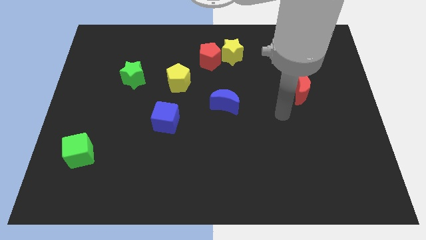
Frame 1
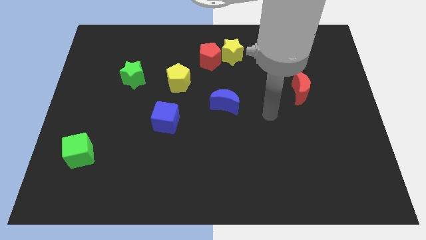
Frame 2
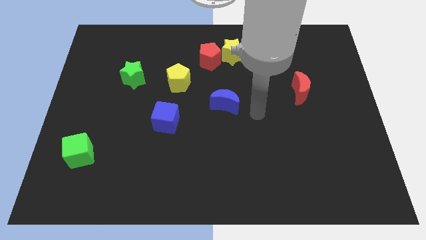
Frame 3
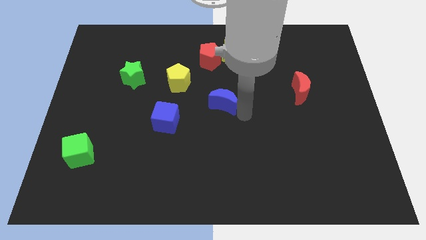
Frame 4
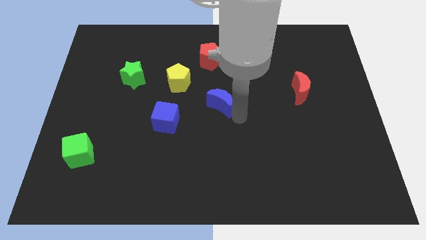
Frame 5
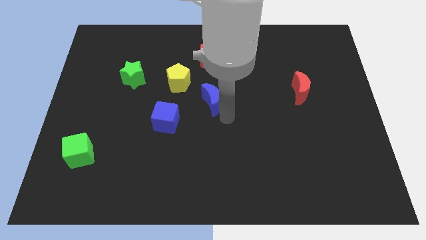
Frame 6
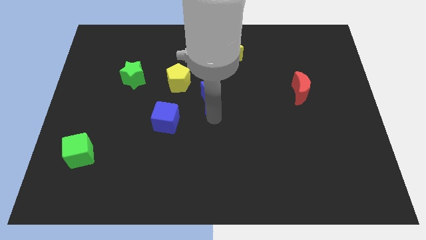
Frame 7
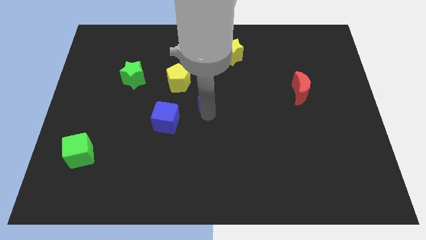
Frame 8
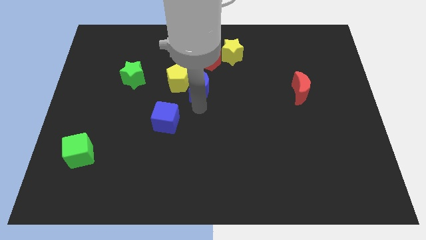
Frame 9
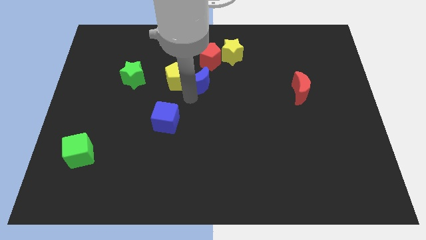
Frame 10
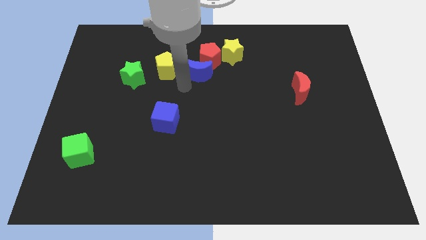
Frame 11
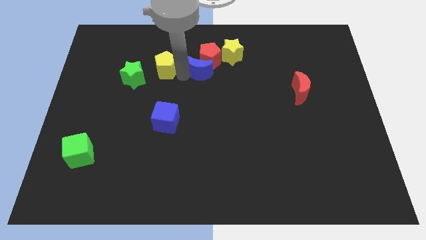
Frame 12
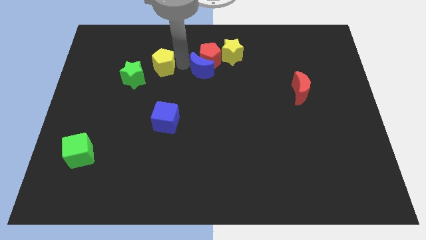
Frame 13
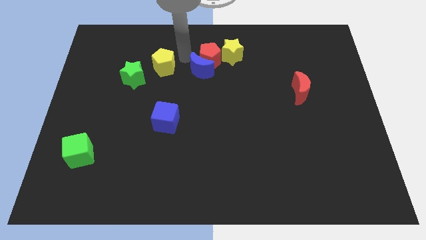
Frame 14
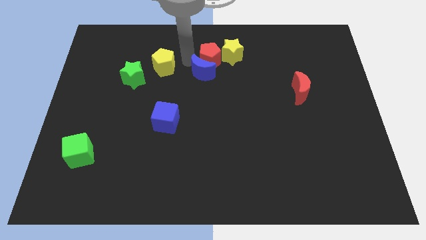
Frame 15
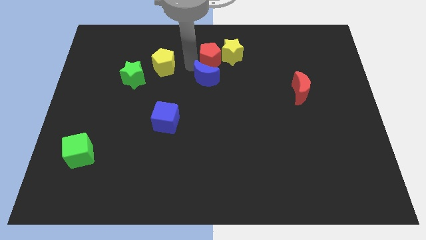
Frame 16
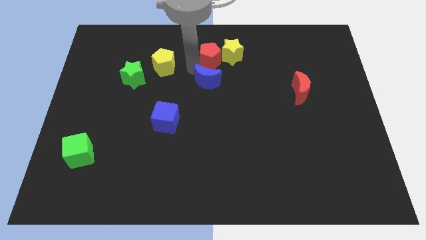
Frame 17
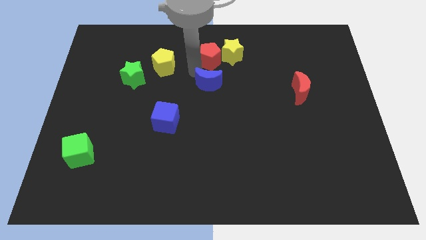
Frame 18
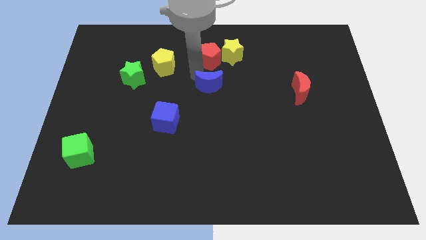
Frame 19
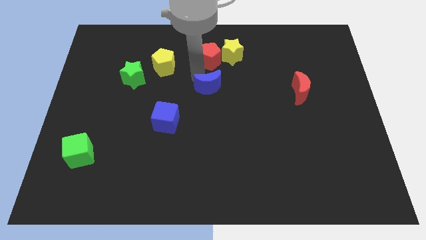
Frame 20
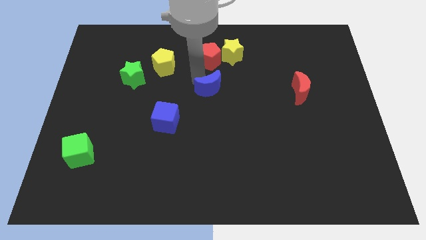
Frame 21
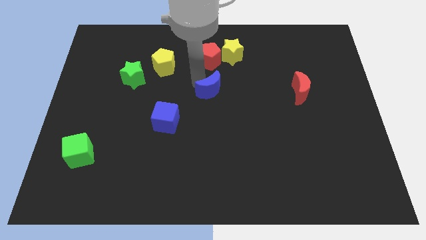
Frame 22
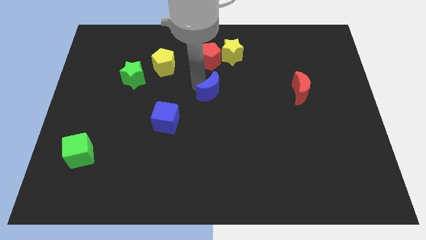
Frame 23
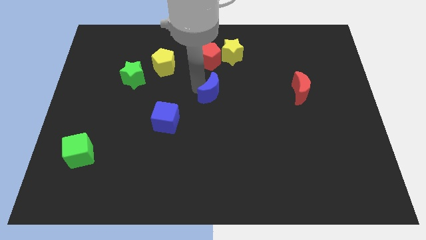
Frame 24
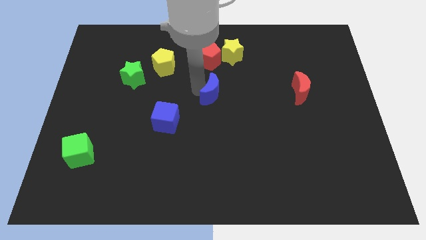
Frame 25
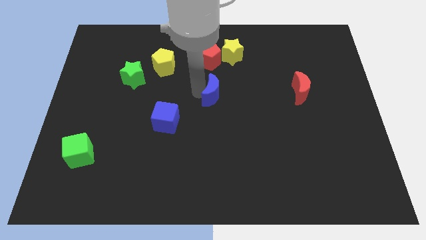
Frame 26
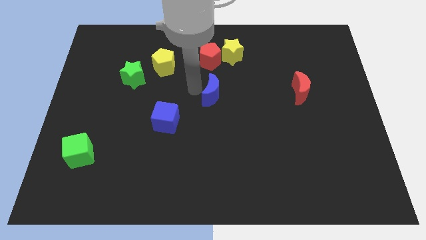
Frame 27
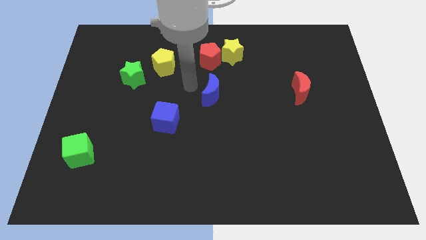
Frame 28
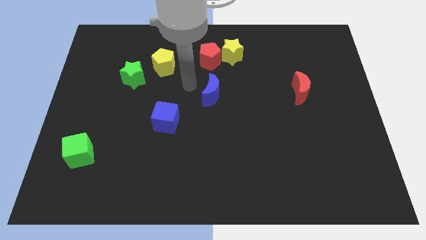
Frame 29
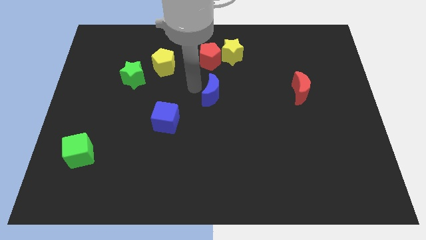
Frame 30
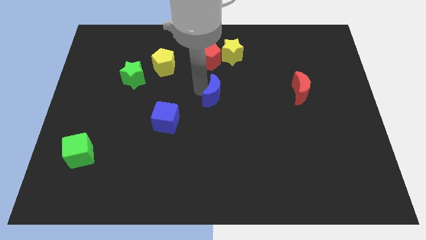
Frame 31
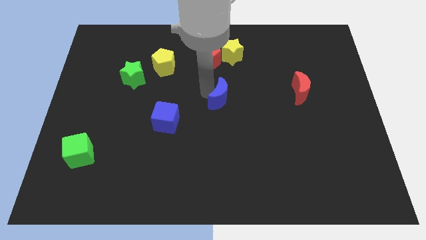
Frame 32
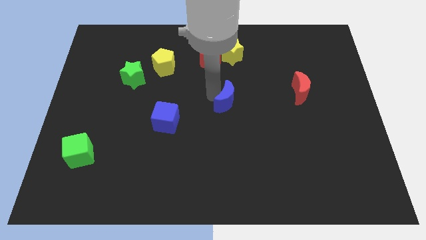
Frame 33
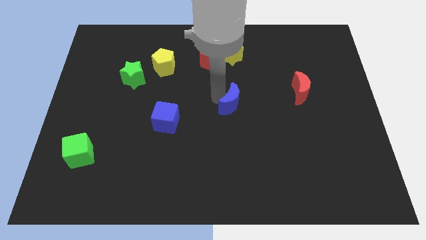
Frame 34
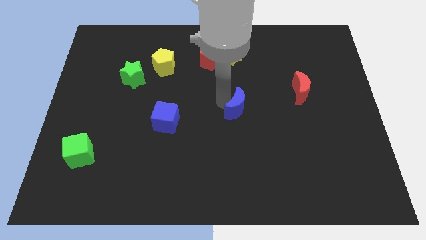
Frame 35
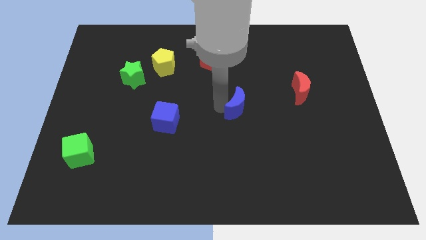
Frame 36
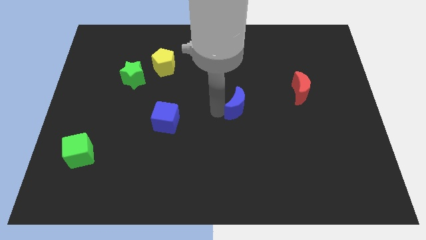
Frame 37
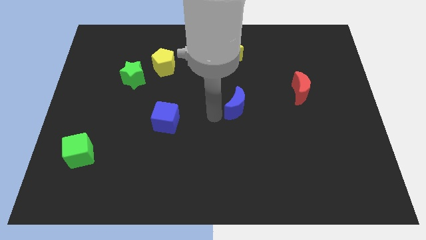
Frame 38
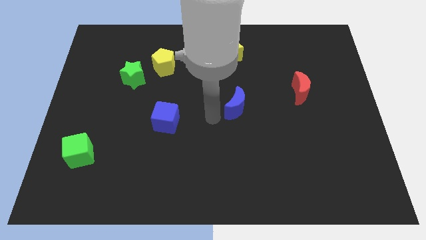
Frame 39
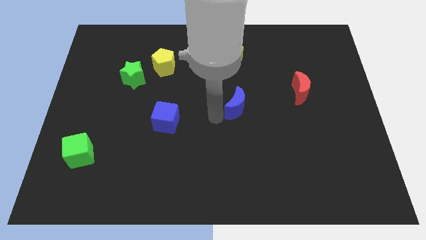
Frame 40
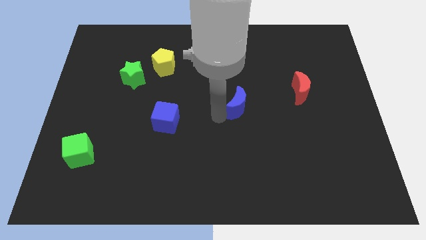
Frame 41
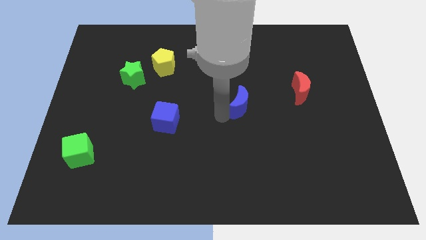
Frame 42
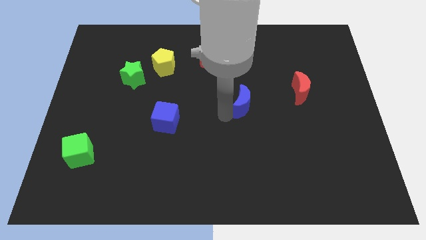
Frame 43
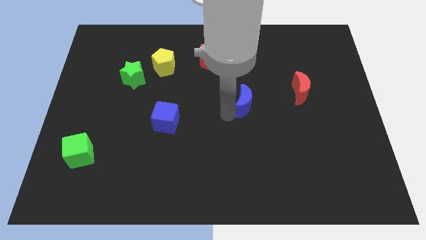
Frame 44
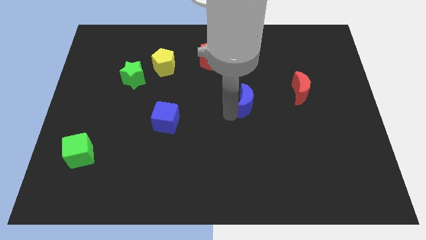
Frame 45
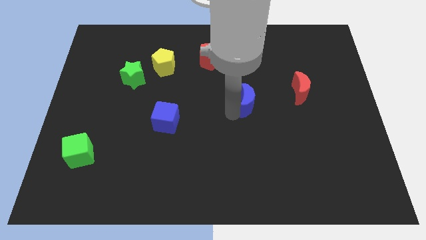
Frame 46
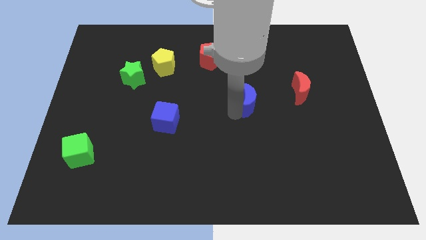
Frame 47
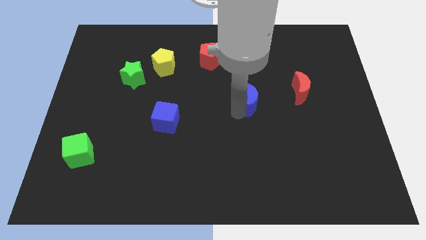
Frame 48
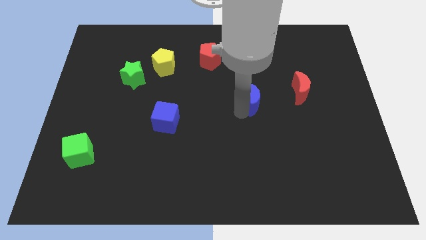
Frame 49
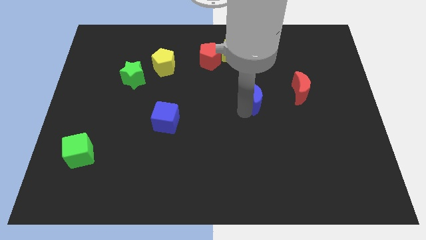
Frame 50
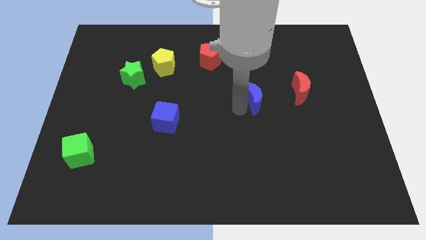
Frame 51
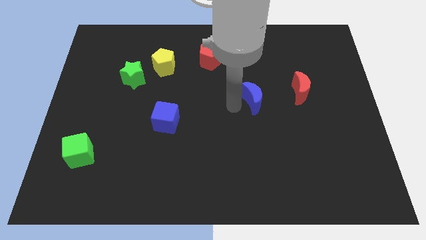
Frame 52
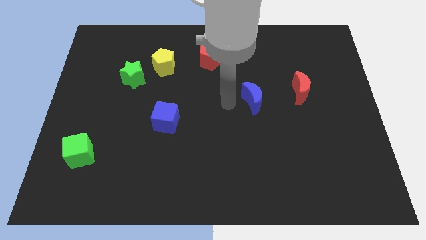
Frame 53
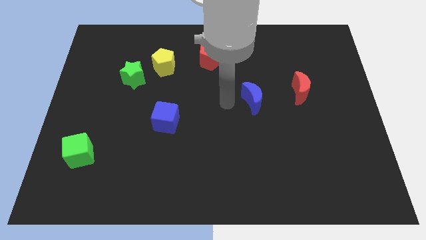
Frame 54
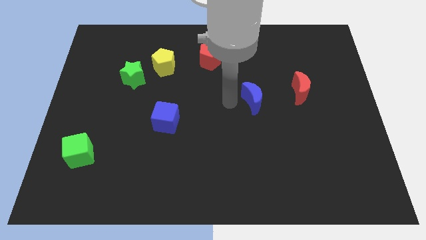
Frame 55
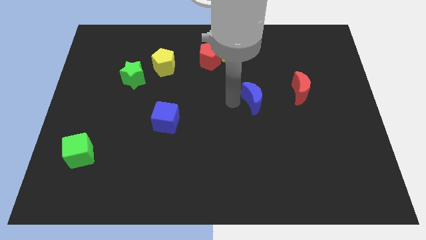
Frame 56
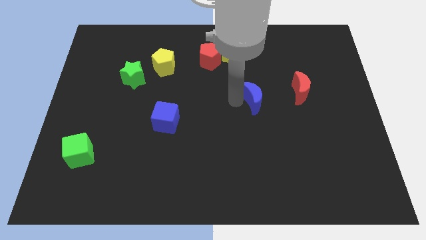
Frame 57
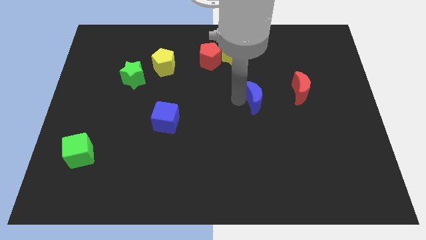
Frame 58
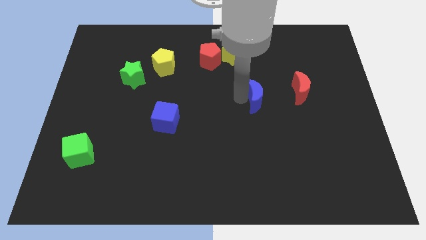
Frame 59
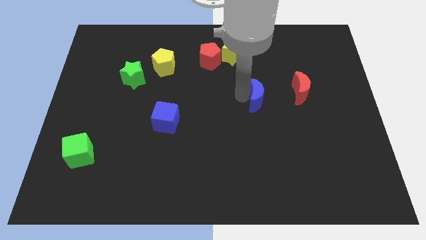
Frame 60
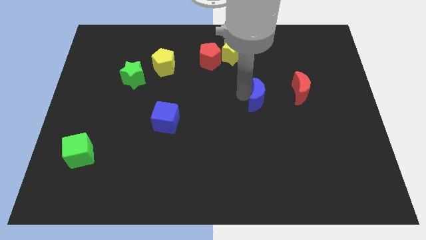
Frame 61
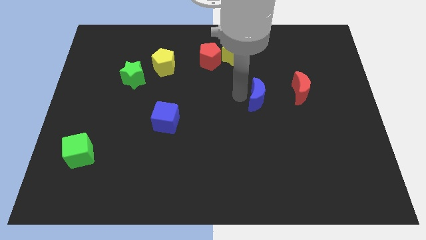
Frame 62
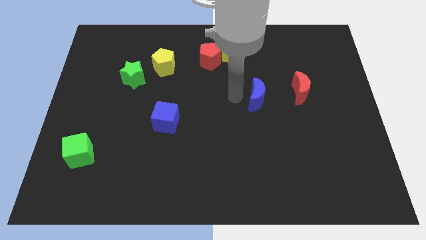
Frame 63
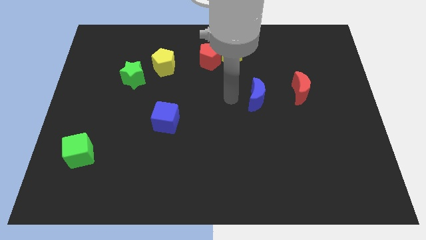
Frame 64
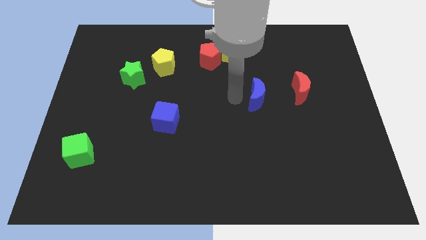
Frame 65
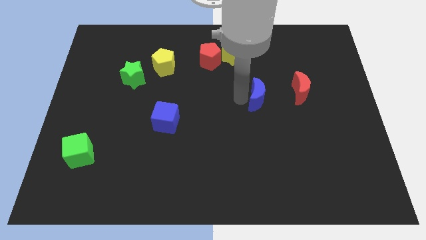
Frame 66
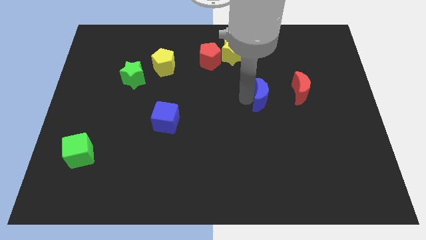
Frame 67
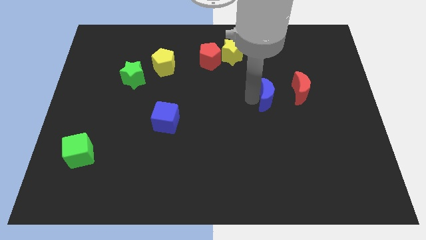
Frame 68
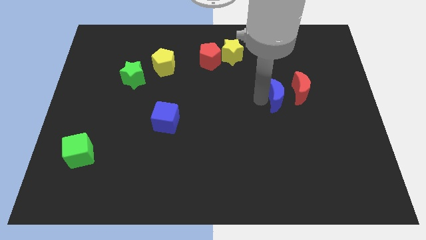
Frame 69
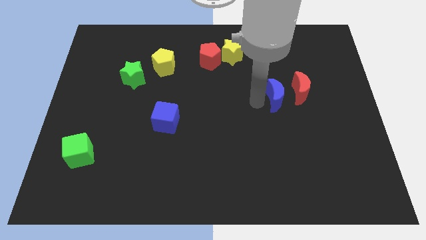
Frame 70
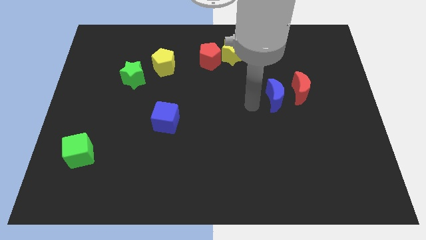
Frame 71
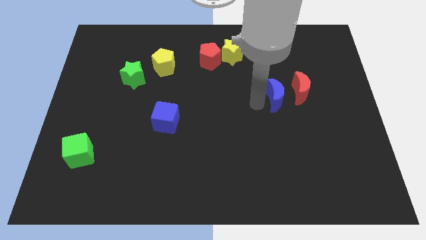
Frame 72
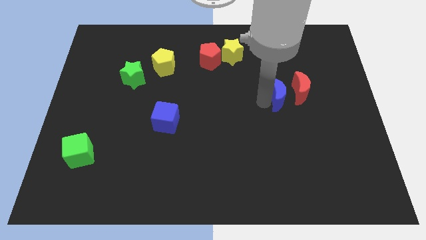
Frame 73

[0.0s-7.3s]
put the blue moon towards the red moon
